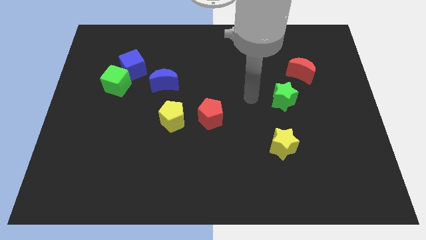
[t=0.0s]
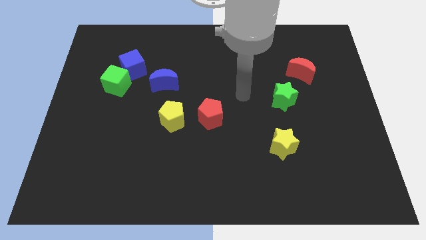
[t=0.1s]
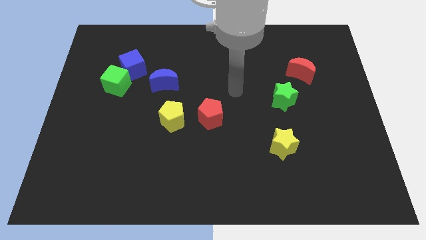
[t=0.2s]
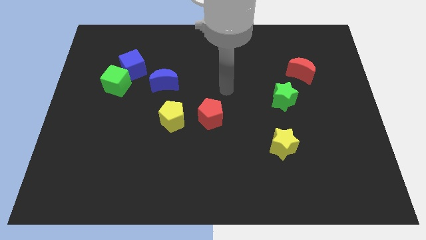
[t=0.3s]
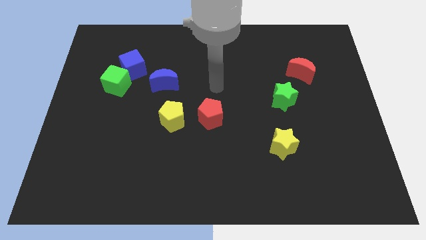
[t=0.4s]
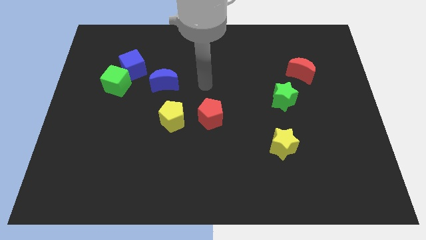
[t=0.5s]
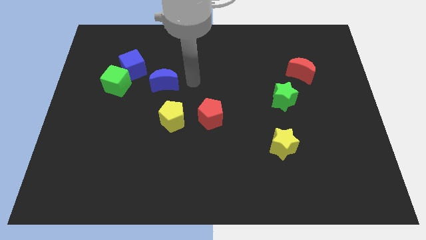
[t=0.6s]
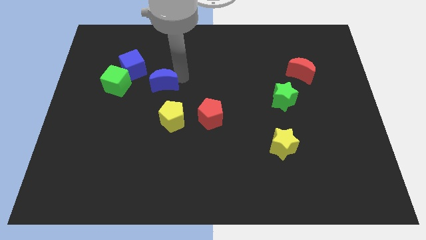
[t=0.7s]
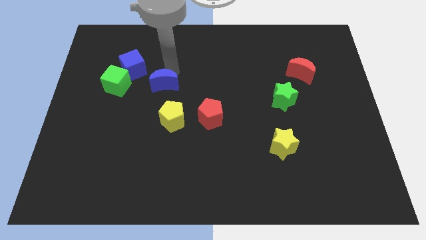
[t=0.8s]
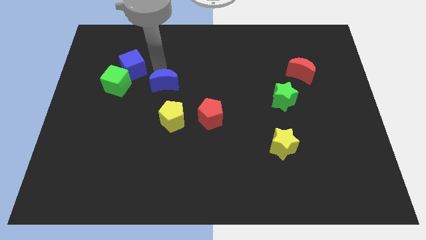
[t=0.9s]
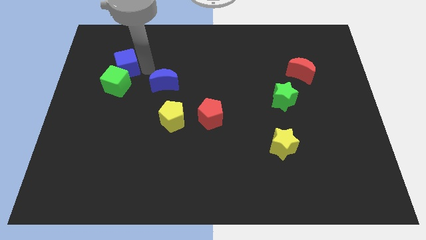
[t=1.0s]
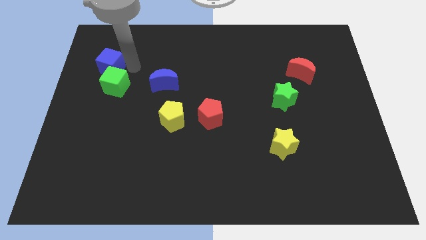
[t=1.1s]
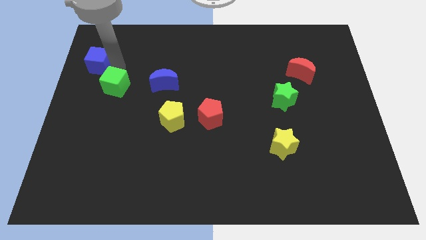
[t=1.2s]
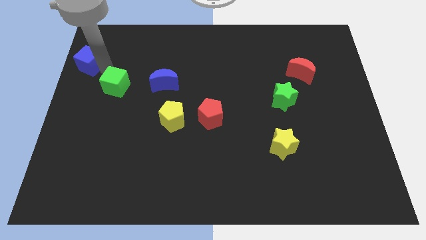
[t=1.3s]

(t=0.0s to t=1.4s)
move the green cube away from the blue cube

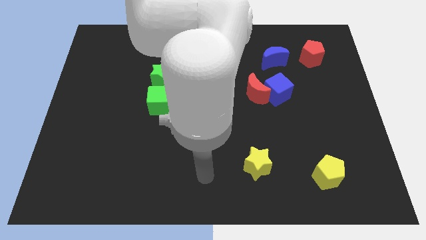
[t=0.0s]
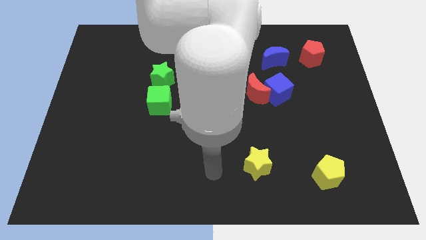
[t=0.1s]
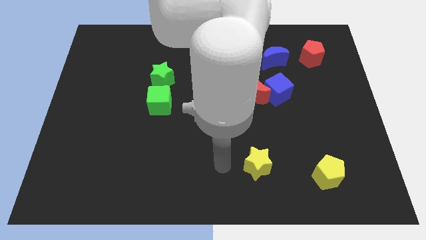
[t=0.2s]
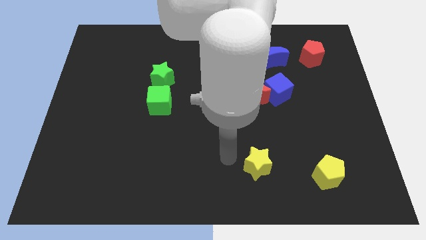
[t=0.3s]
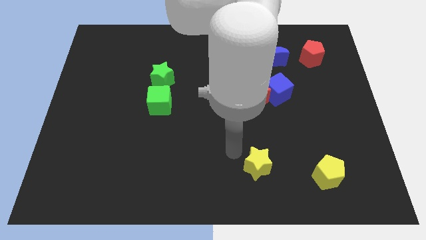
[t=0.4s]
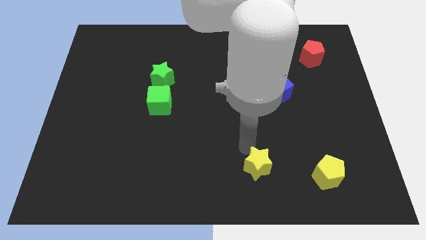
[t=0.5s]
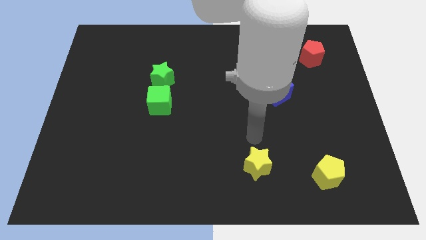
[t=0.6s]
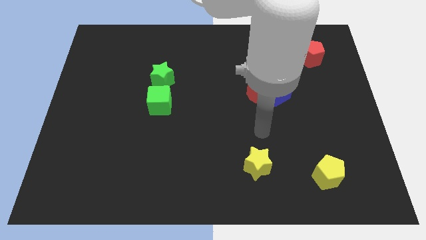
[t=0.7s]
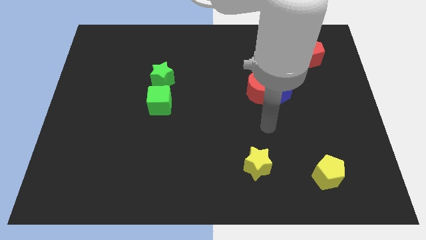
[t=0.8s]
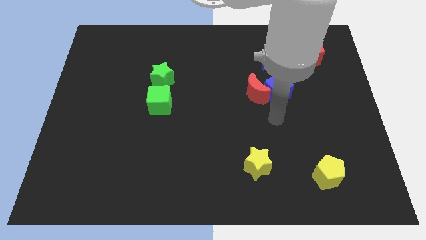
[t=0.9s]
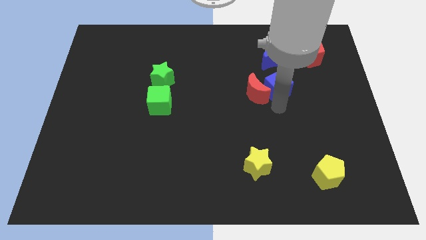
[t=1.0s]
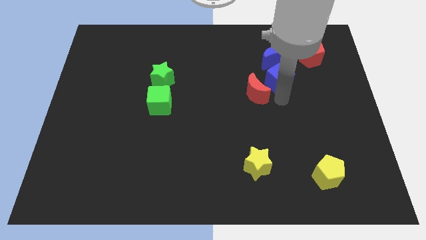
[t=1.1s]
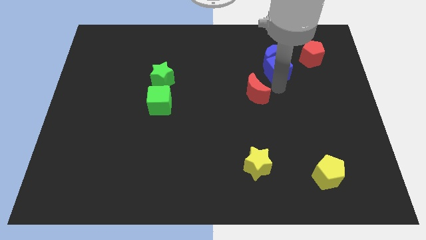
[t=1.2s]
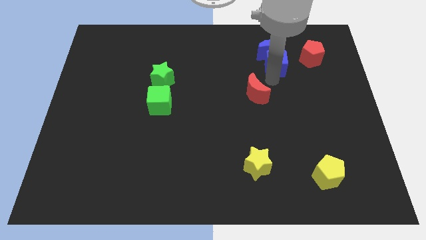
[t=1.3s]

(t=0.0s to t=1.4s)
move the red moon away from the blue cube

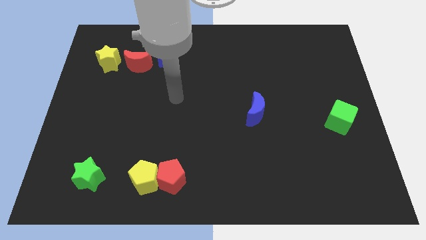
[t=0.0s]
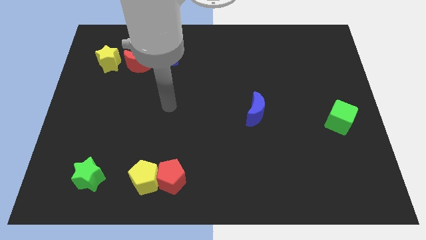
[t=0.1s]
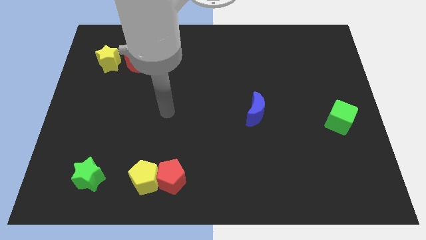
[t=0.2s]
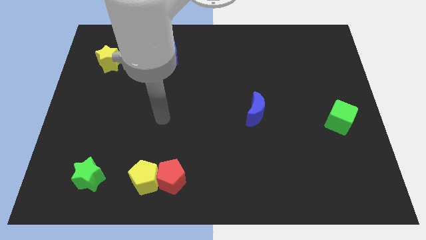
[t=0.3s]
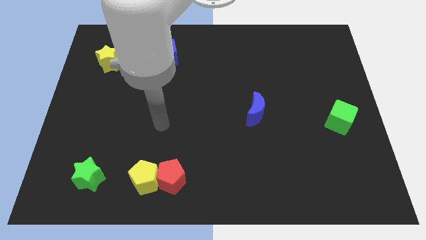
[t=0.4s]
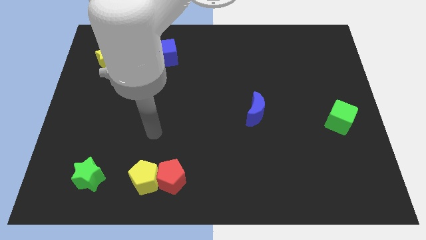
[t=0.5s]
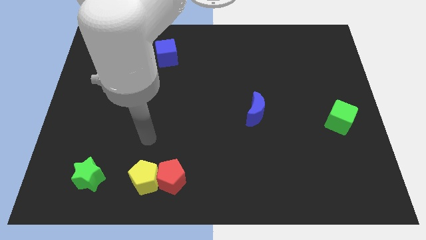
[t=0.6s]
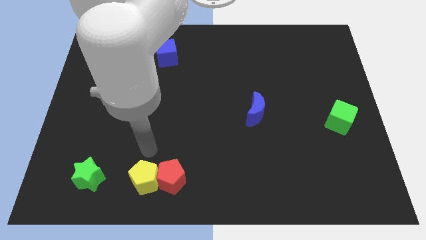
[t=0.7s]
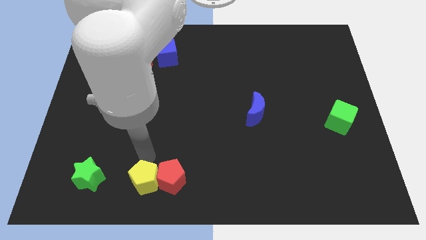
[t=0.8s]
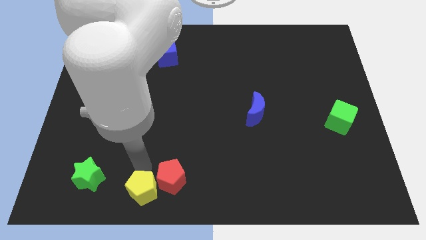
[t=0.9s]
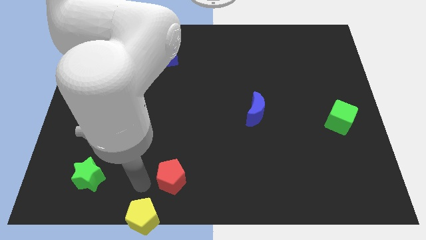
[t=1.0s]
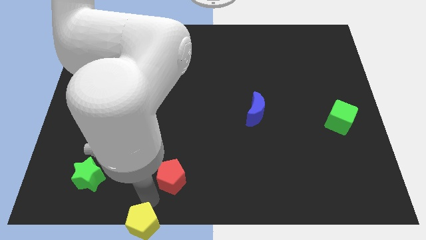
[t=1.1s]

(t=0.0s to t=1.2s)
separate the red pentagon from the yellow pentagon

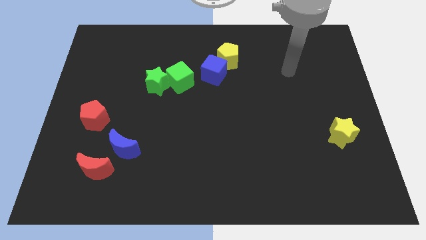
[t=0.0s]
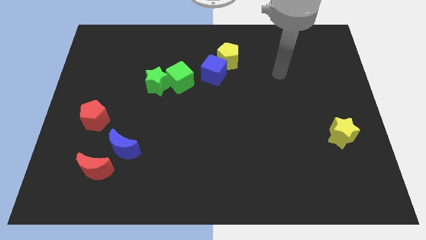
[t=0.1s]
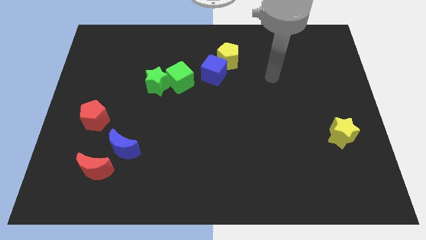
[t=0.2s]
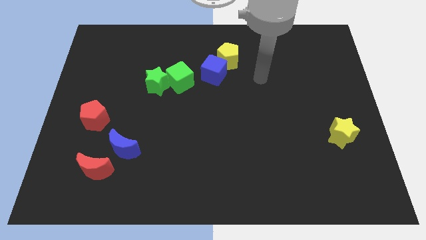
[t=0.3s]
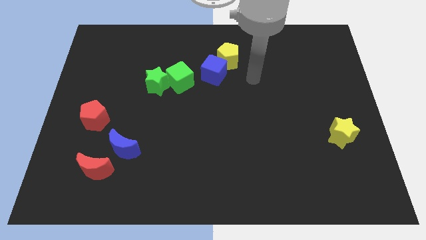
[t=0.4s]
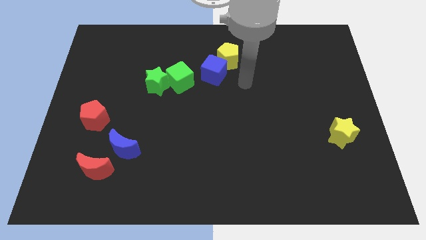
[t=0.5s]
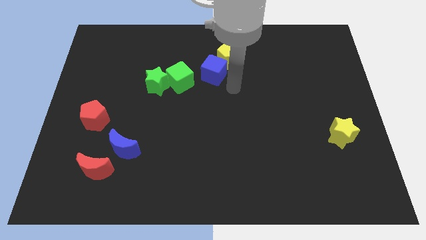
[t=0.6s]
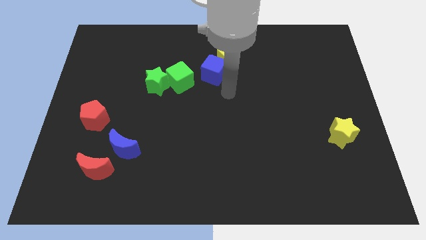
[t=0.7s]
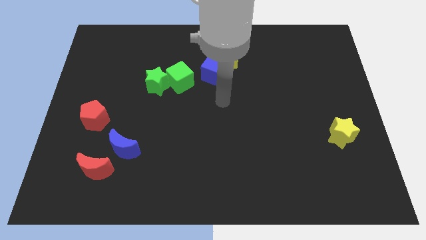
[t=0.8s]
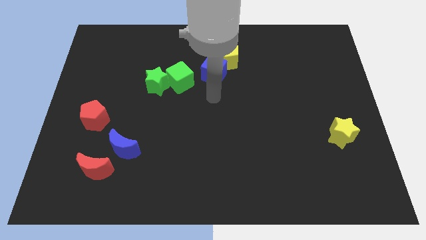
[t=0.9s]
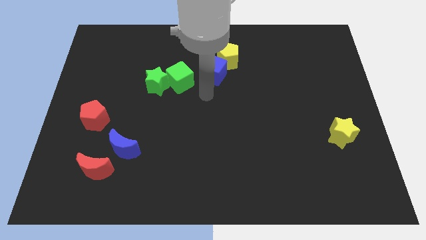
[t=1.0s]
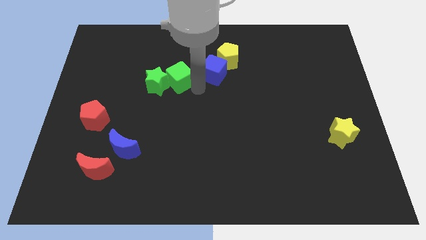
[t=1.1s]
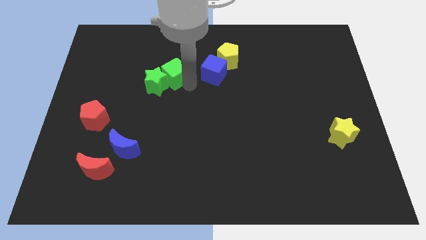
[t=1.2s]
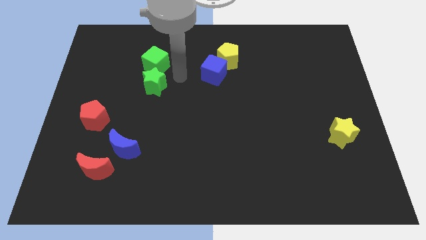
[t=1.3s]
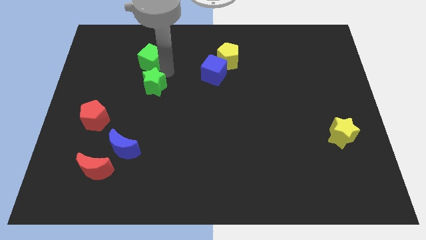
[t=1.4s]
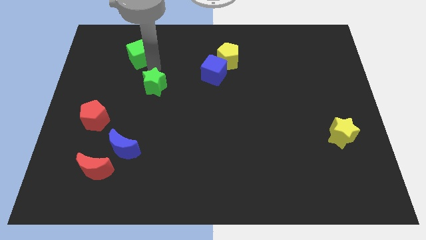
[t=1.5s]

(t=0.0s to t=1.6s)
move the green star away from the green cube

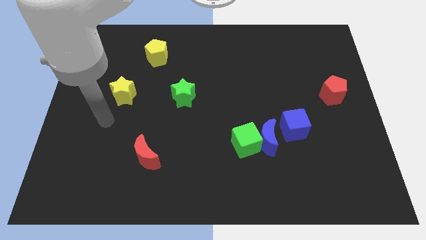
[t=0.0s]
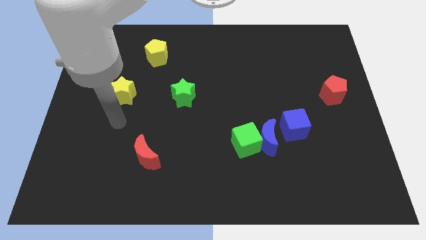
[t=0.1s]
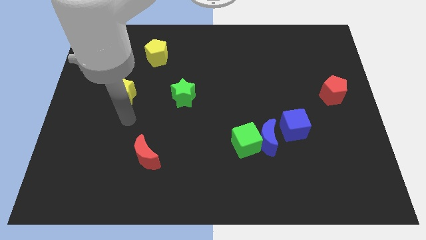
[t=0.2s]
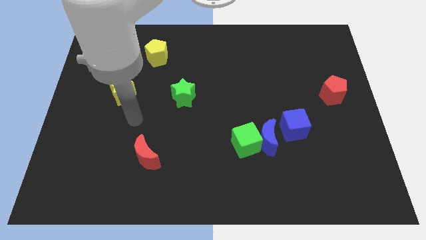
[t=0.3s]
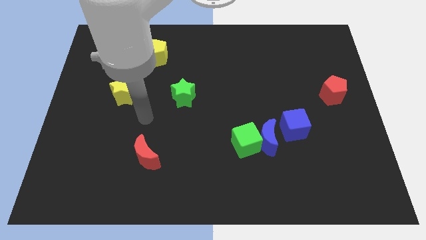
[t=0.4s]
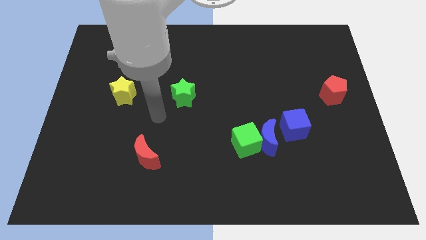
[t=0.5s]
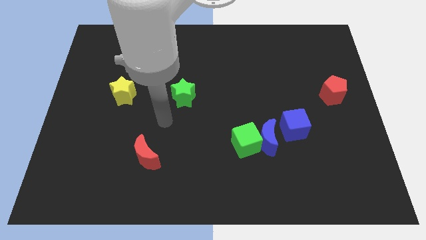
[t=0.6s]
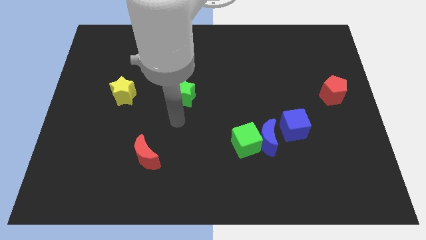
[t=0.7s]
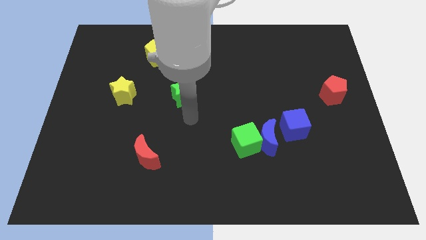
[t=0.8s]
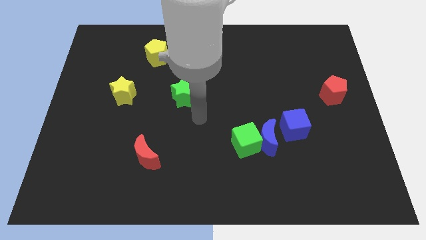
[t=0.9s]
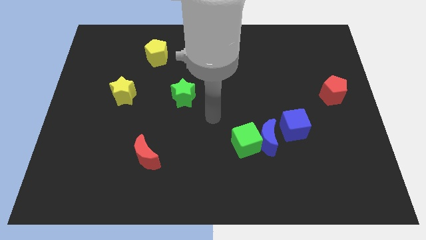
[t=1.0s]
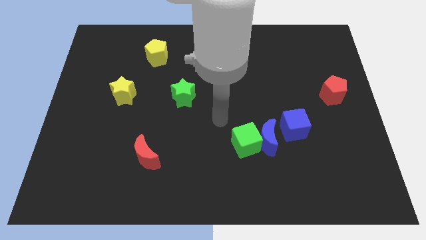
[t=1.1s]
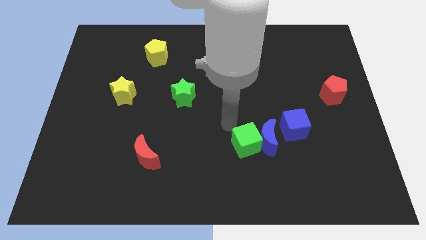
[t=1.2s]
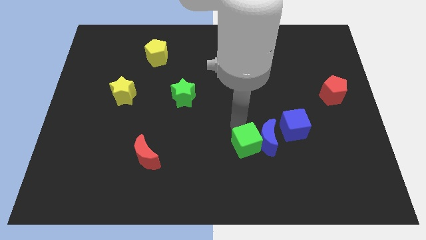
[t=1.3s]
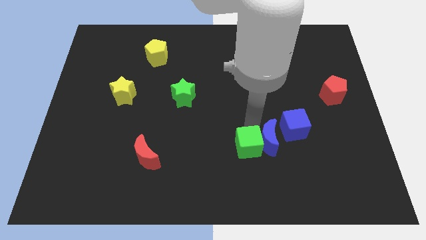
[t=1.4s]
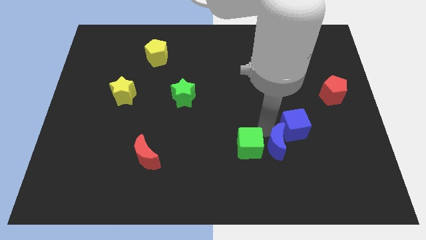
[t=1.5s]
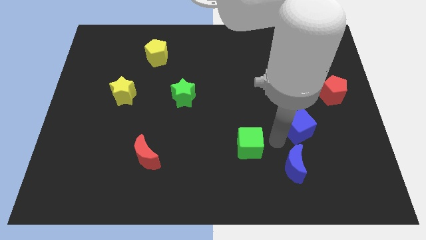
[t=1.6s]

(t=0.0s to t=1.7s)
pull the green cube apart from the blue moon

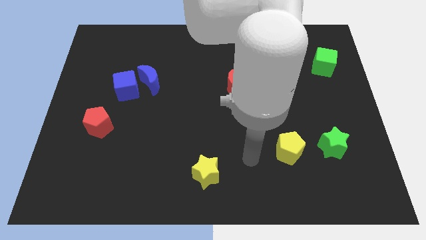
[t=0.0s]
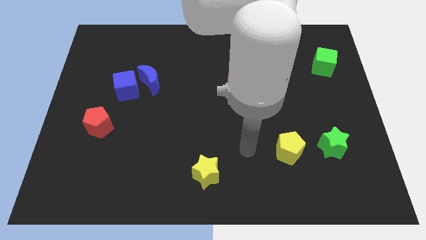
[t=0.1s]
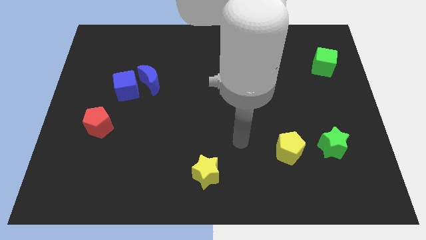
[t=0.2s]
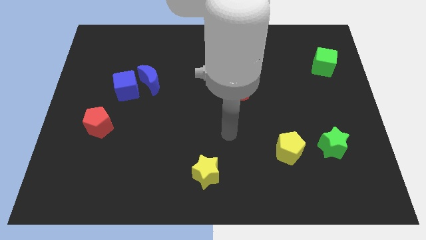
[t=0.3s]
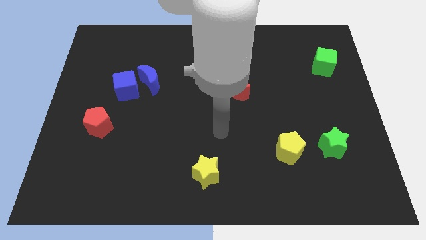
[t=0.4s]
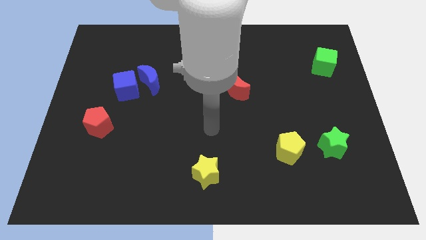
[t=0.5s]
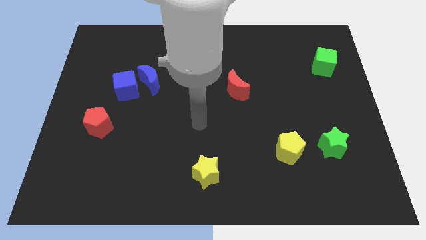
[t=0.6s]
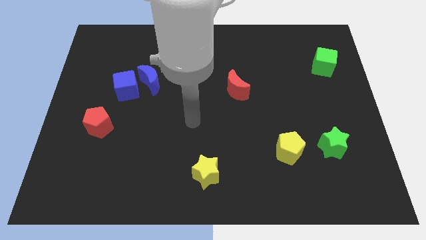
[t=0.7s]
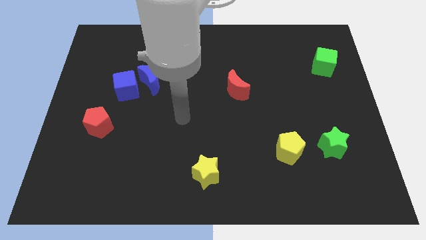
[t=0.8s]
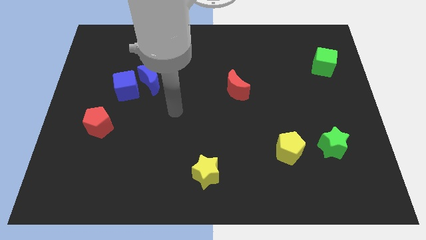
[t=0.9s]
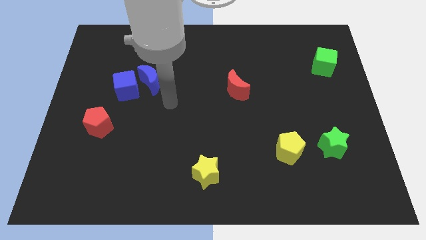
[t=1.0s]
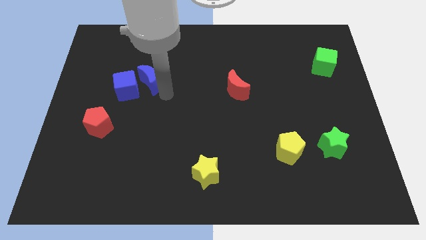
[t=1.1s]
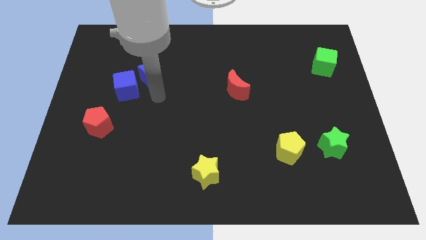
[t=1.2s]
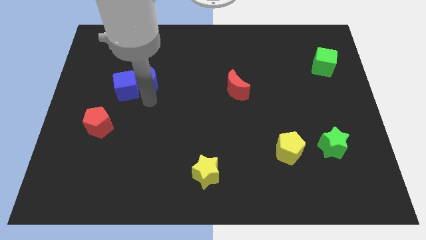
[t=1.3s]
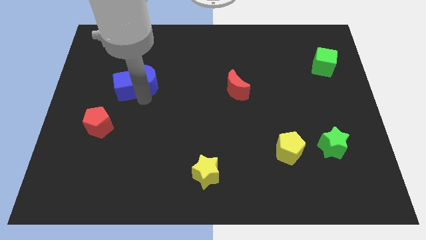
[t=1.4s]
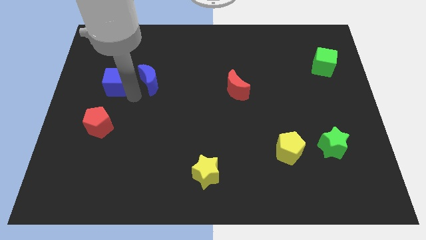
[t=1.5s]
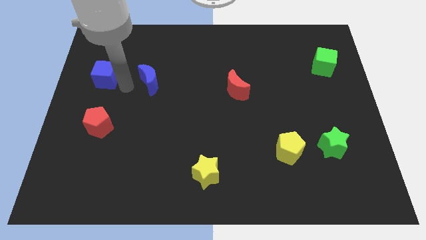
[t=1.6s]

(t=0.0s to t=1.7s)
separate the blue moon from the blue cube

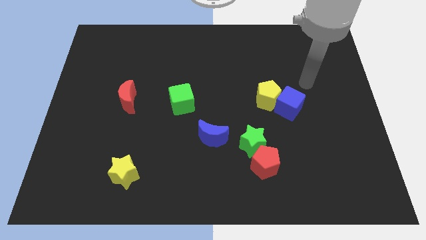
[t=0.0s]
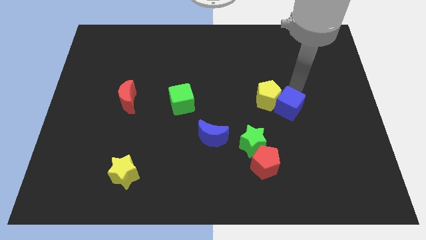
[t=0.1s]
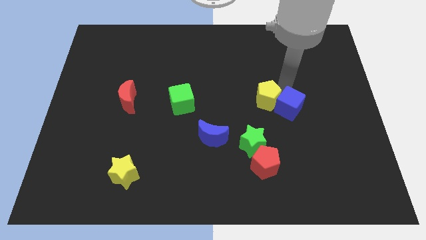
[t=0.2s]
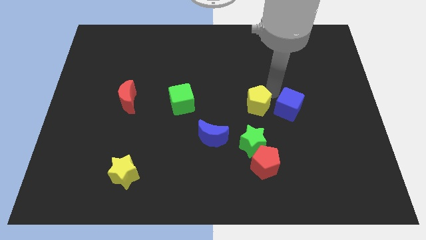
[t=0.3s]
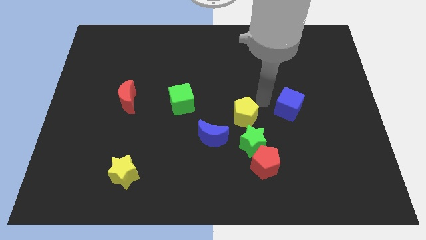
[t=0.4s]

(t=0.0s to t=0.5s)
pull the blue cube apart from the yellow pentagon
